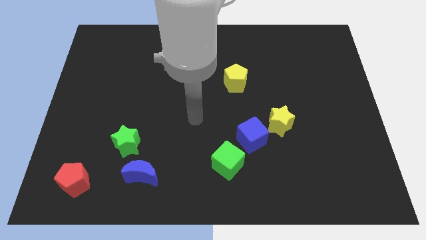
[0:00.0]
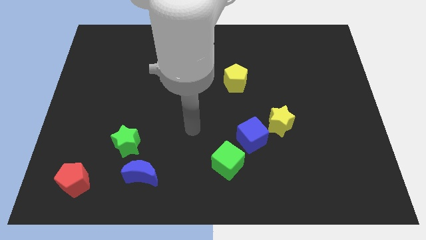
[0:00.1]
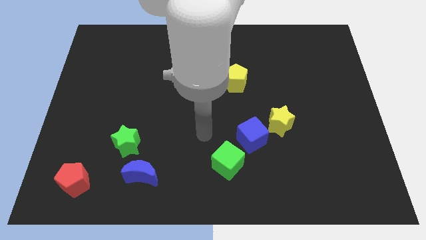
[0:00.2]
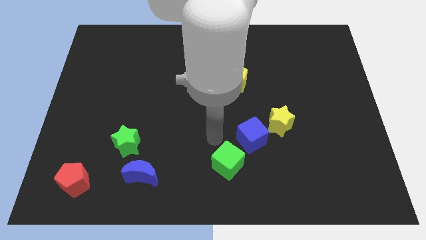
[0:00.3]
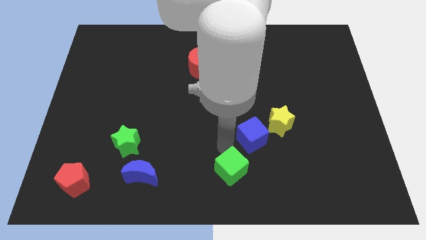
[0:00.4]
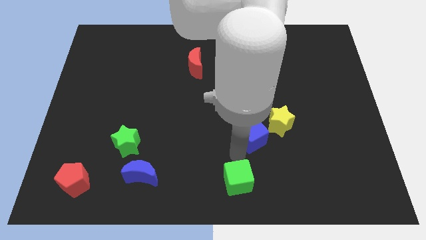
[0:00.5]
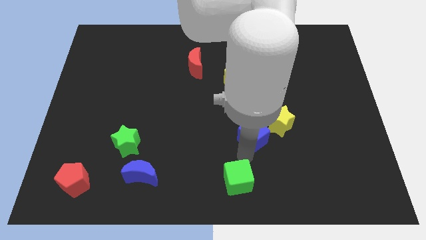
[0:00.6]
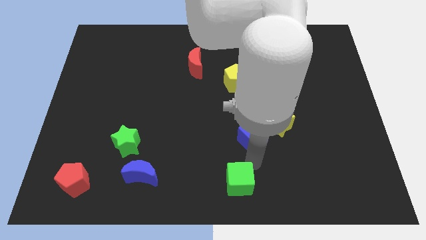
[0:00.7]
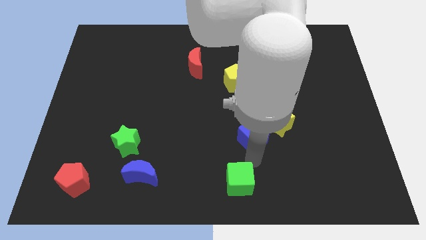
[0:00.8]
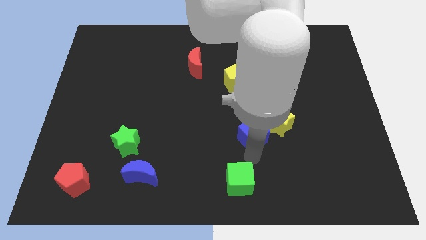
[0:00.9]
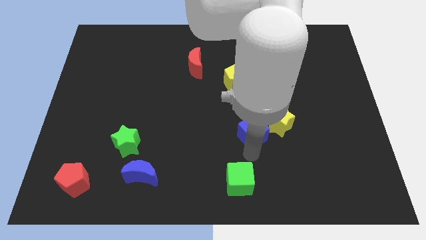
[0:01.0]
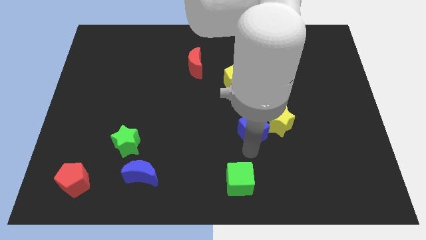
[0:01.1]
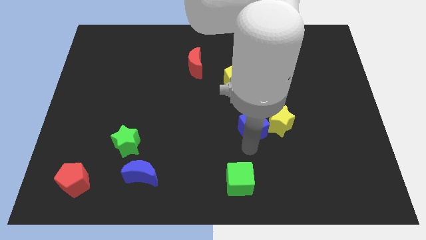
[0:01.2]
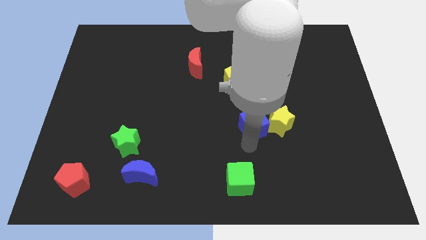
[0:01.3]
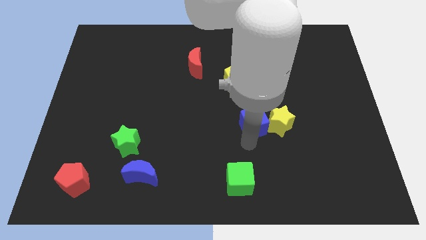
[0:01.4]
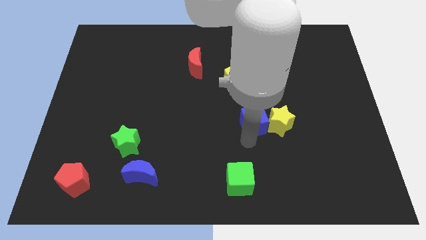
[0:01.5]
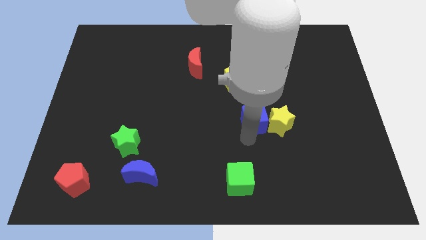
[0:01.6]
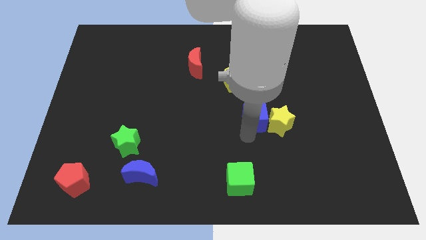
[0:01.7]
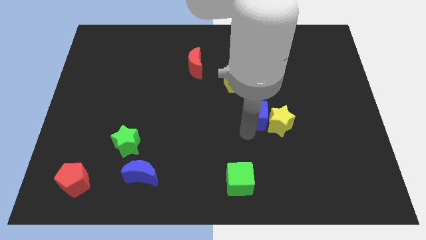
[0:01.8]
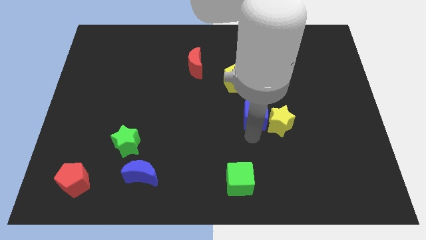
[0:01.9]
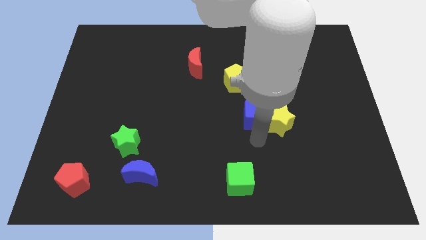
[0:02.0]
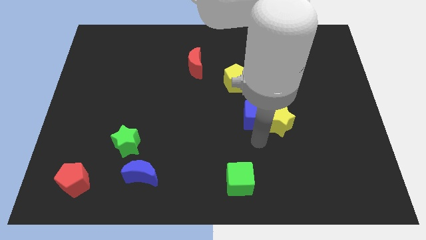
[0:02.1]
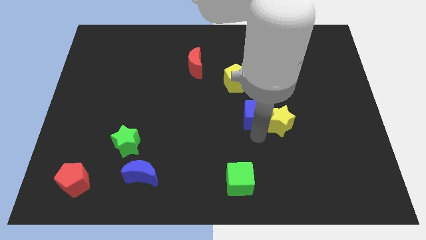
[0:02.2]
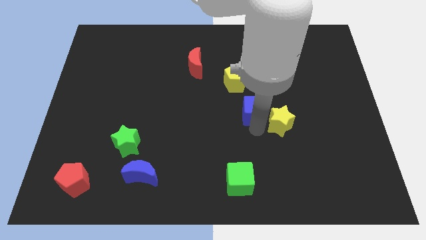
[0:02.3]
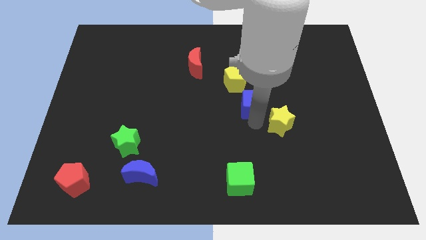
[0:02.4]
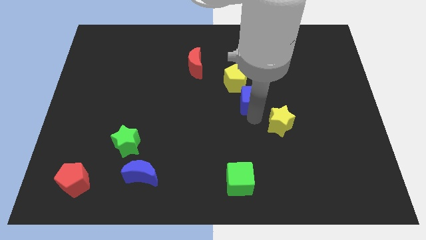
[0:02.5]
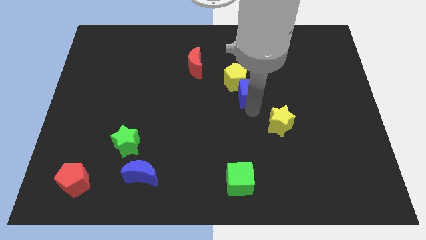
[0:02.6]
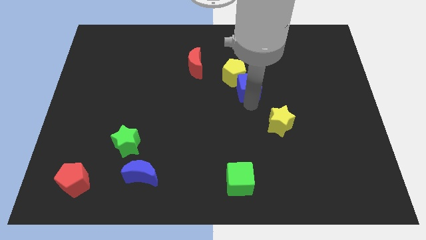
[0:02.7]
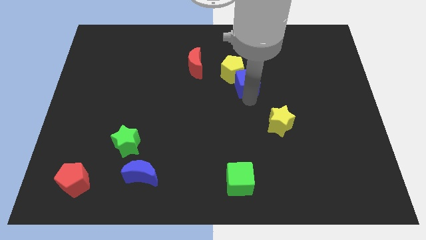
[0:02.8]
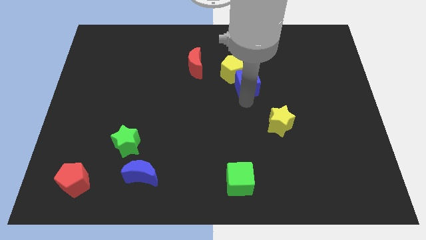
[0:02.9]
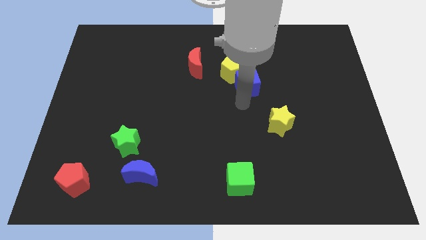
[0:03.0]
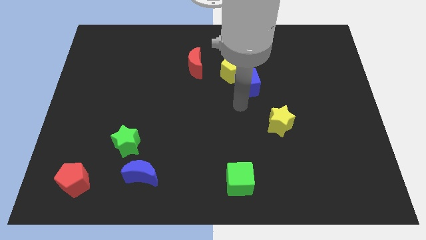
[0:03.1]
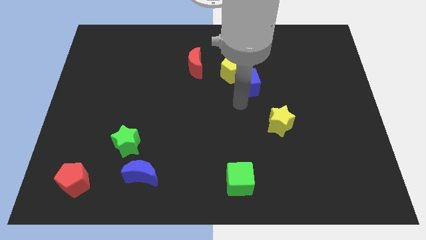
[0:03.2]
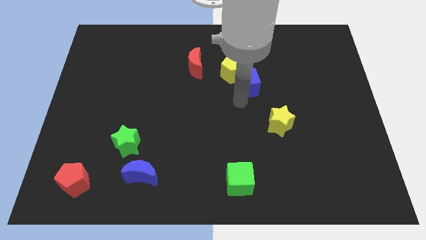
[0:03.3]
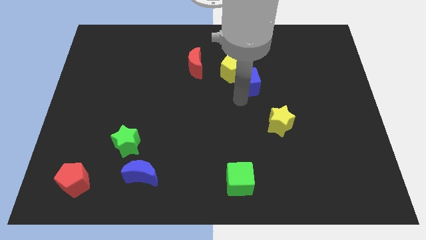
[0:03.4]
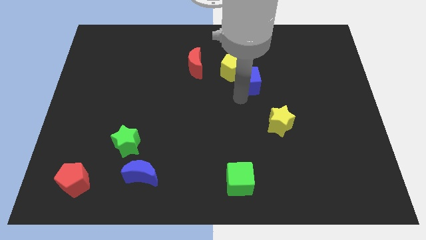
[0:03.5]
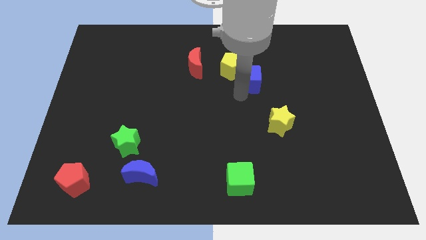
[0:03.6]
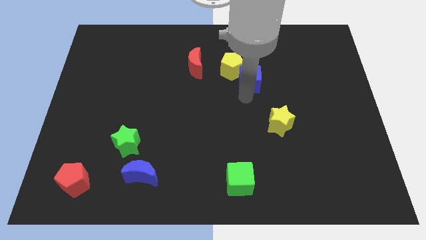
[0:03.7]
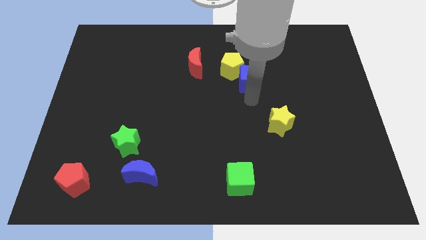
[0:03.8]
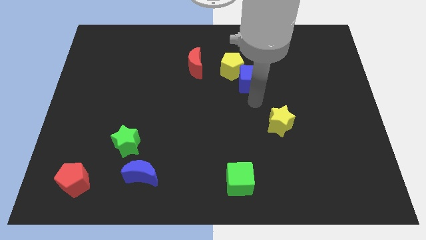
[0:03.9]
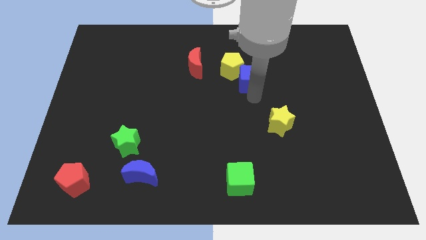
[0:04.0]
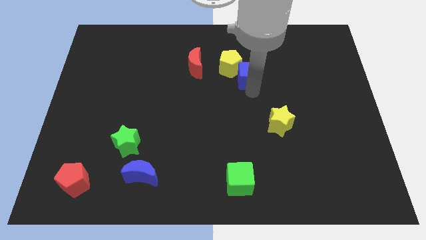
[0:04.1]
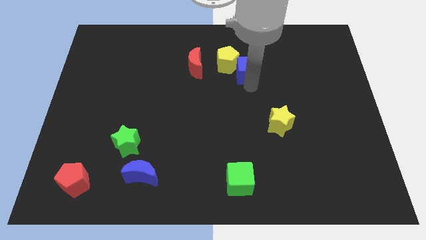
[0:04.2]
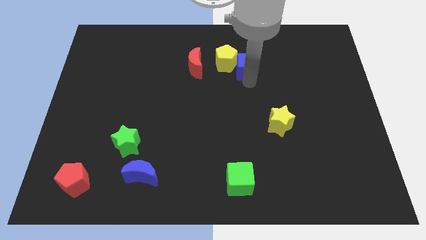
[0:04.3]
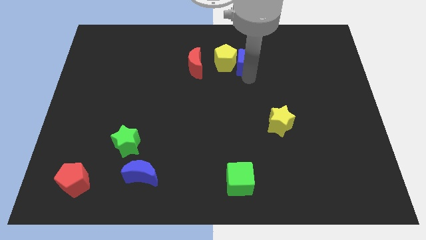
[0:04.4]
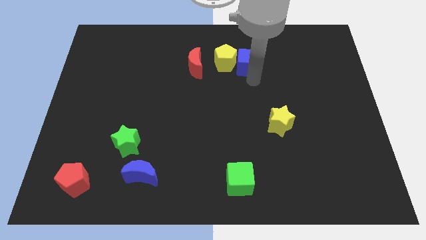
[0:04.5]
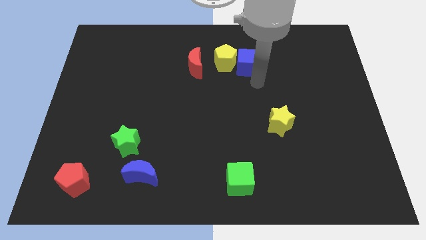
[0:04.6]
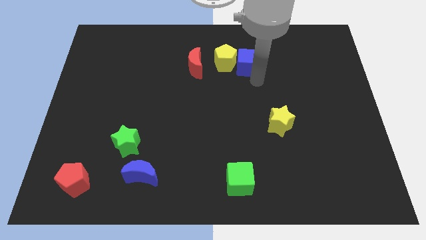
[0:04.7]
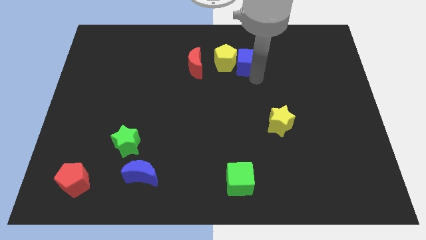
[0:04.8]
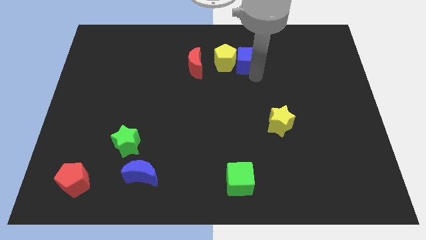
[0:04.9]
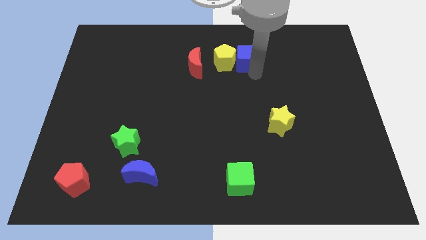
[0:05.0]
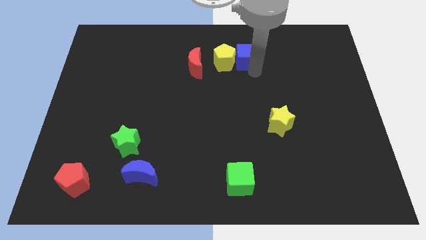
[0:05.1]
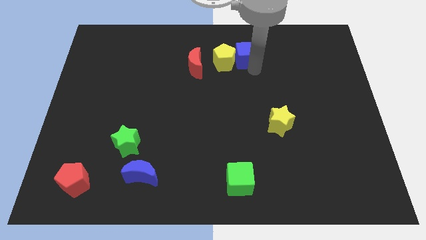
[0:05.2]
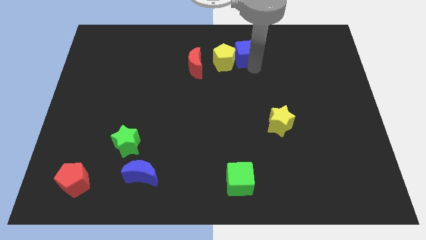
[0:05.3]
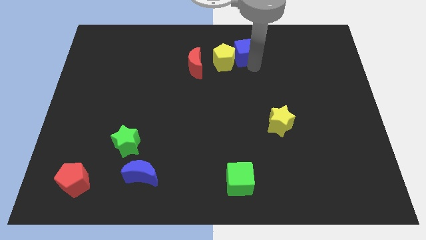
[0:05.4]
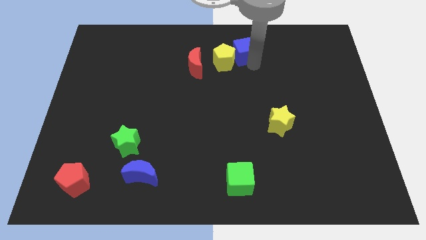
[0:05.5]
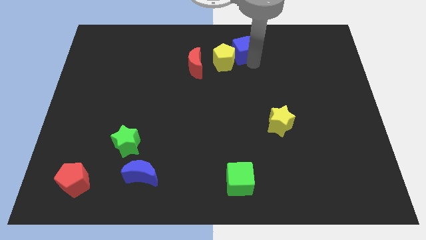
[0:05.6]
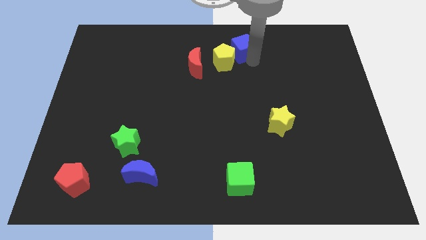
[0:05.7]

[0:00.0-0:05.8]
slide the blue cube to the towards your base

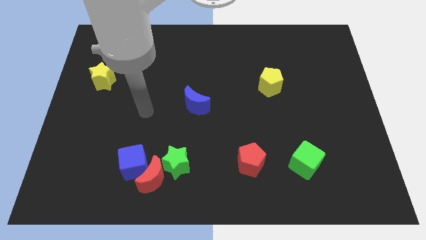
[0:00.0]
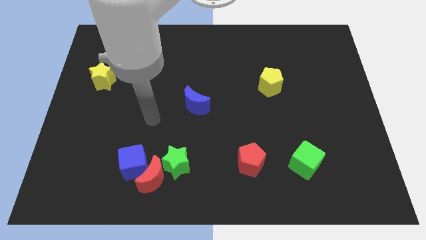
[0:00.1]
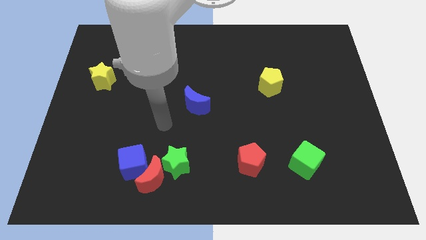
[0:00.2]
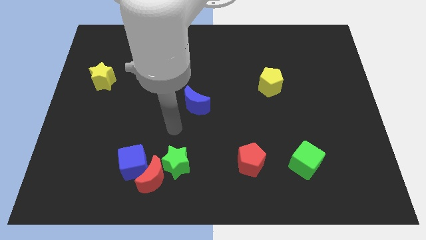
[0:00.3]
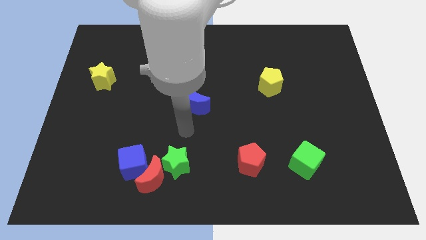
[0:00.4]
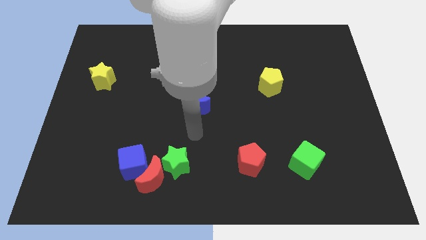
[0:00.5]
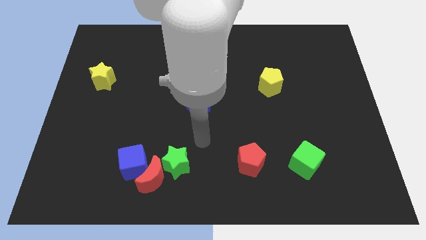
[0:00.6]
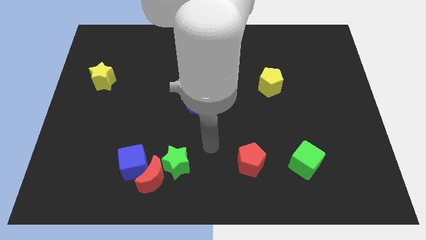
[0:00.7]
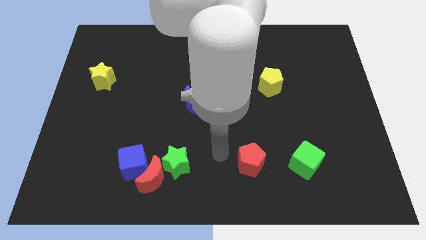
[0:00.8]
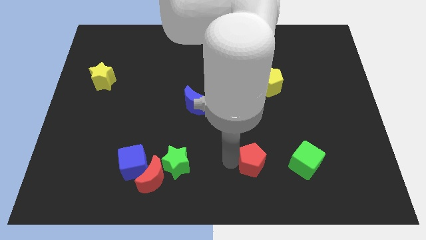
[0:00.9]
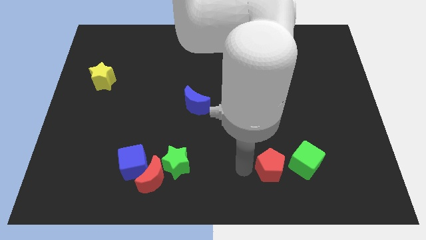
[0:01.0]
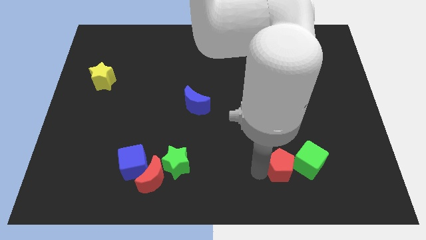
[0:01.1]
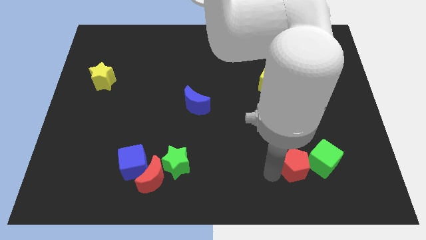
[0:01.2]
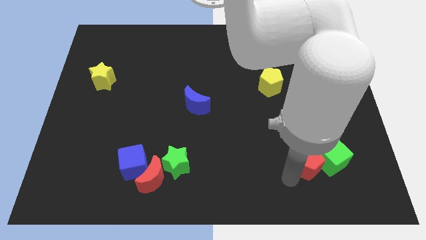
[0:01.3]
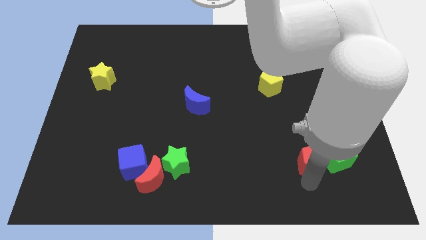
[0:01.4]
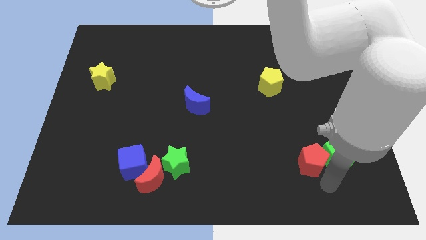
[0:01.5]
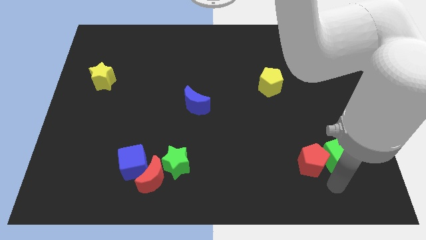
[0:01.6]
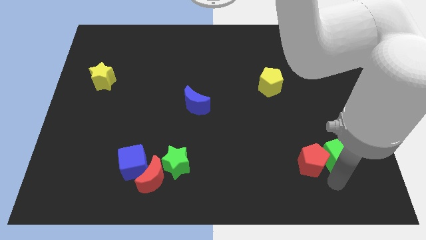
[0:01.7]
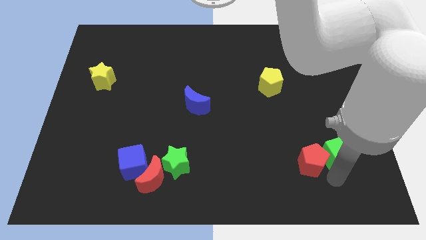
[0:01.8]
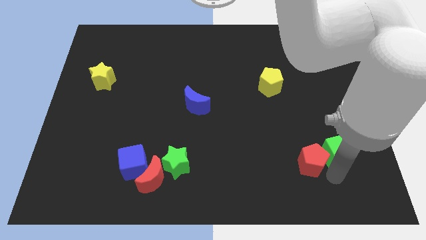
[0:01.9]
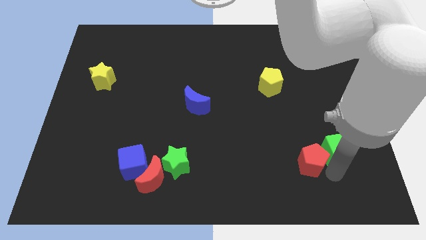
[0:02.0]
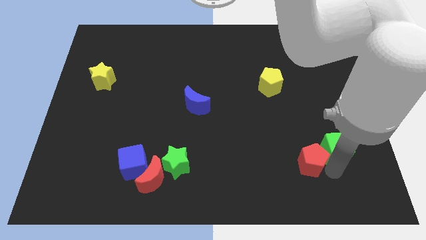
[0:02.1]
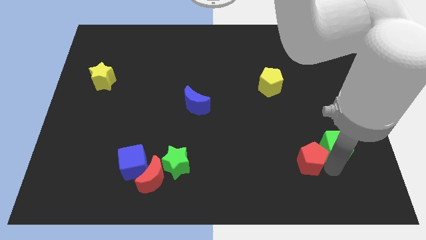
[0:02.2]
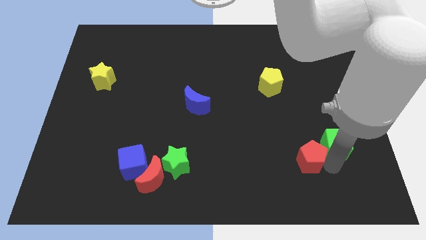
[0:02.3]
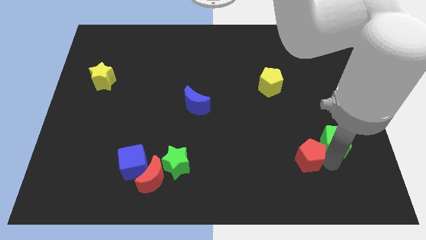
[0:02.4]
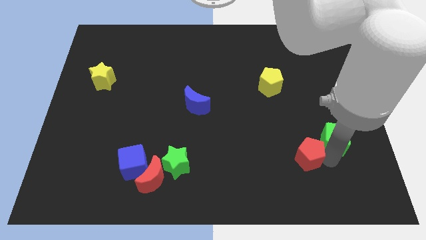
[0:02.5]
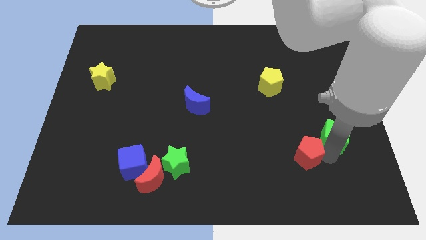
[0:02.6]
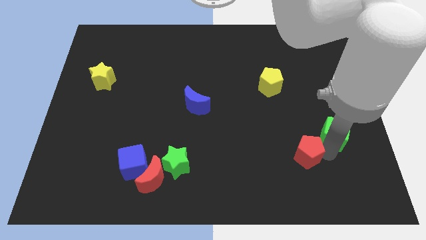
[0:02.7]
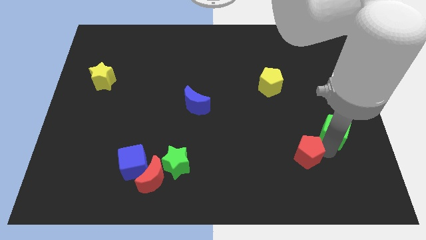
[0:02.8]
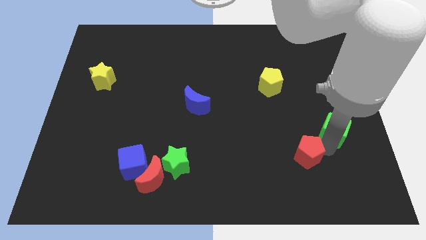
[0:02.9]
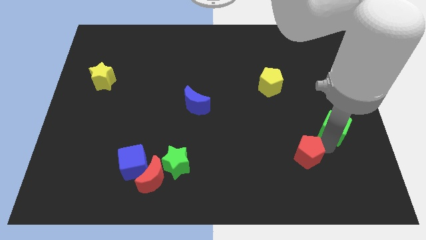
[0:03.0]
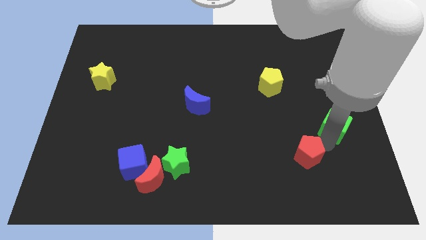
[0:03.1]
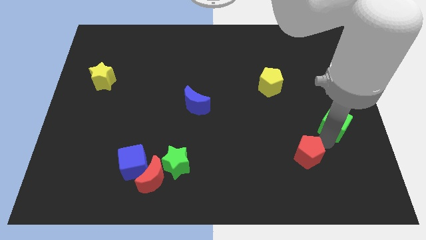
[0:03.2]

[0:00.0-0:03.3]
slide the green cube to the center right
